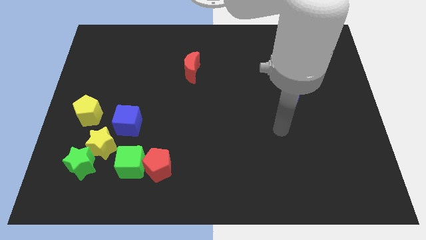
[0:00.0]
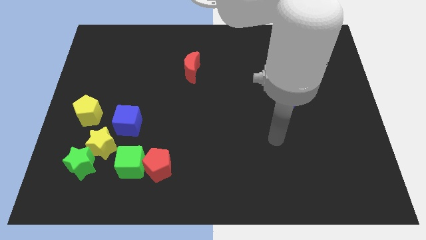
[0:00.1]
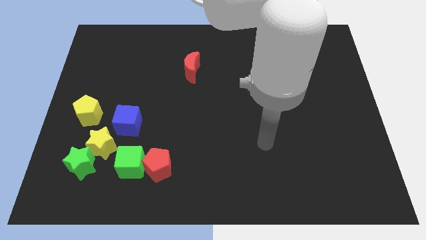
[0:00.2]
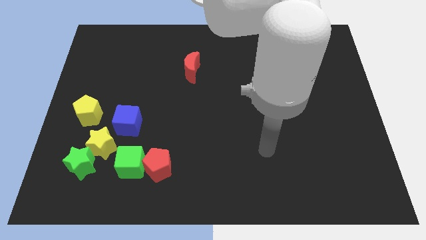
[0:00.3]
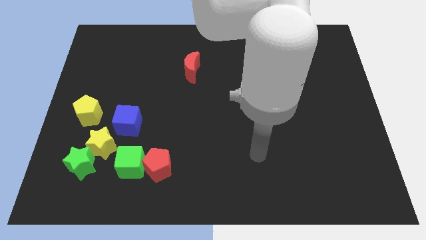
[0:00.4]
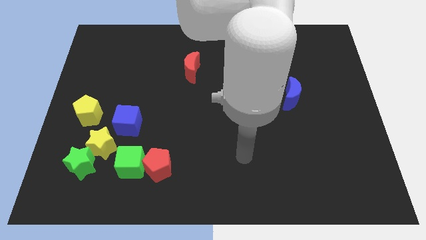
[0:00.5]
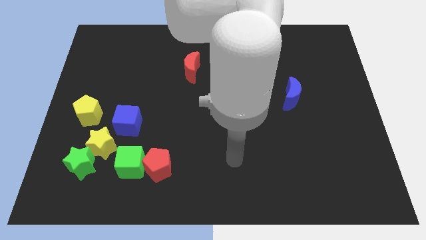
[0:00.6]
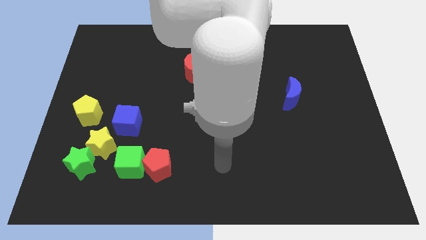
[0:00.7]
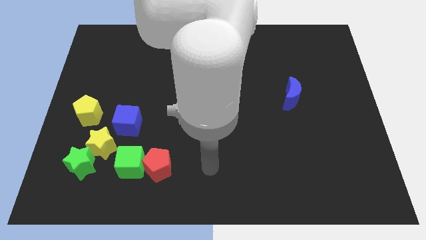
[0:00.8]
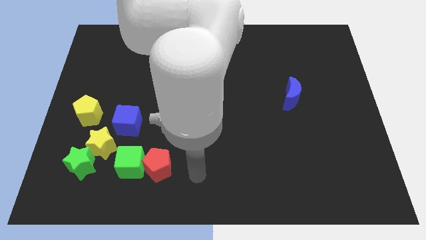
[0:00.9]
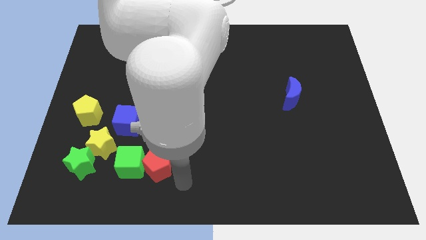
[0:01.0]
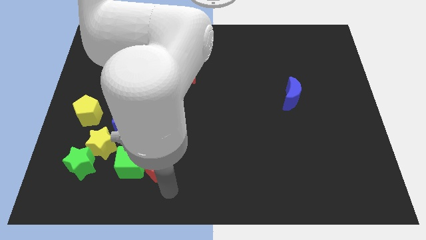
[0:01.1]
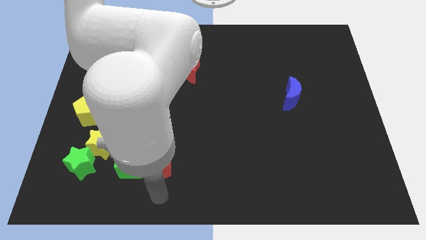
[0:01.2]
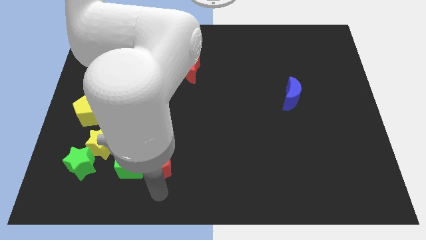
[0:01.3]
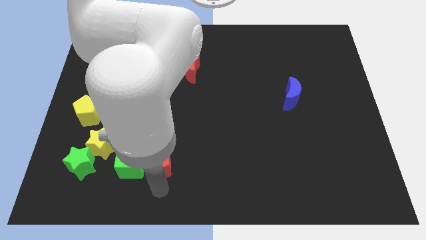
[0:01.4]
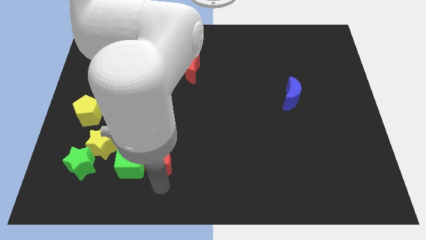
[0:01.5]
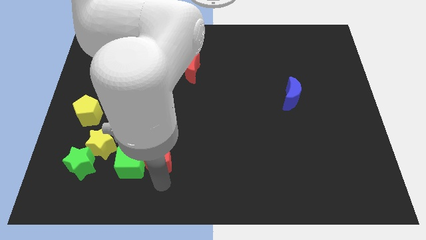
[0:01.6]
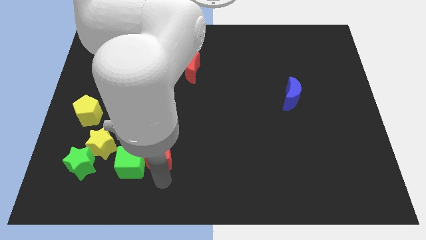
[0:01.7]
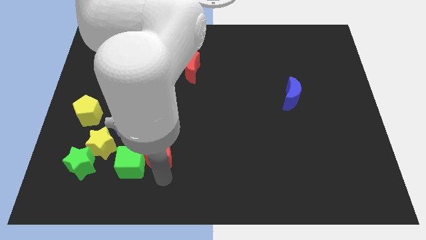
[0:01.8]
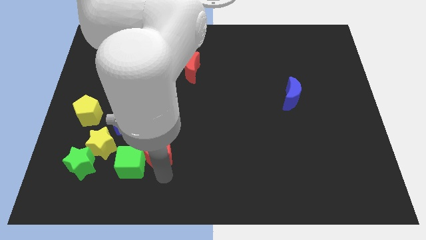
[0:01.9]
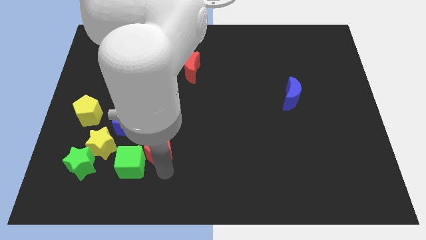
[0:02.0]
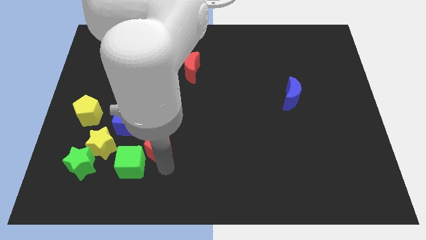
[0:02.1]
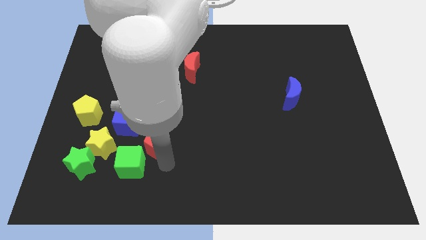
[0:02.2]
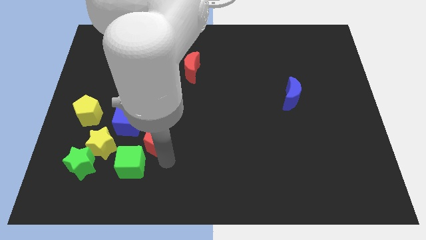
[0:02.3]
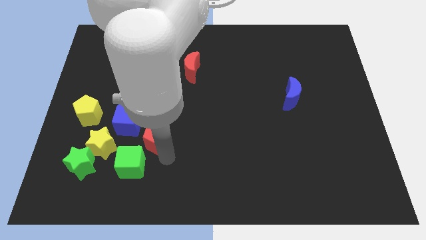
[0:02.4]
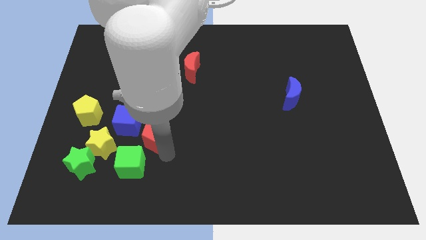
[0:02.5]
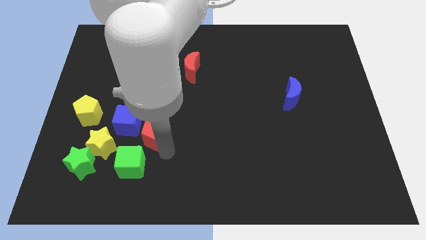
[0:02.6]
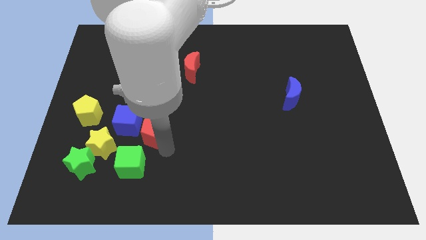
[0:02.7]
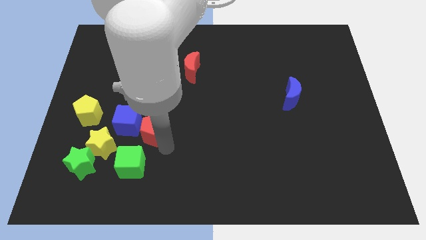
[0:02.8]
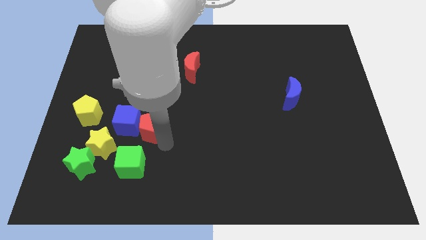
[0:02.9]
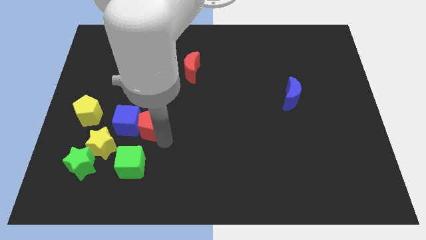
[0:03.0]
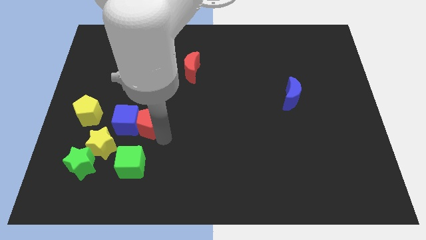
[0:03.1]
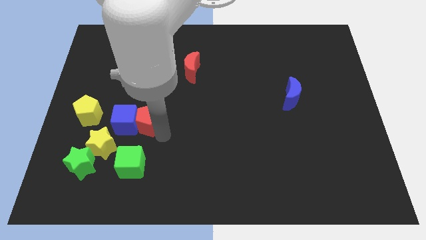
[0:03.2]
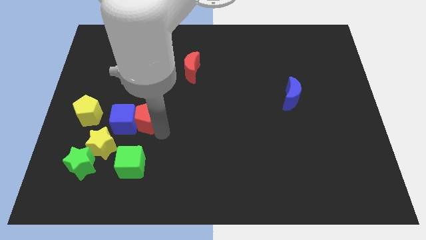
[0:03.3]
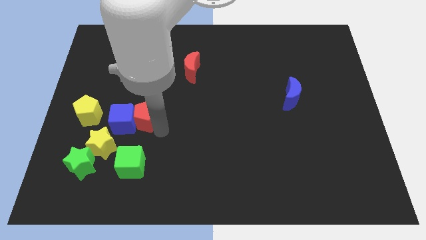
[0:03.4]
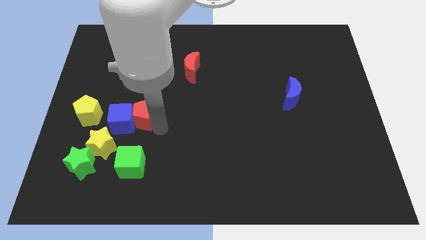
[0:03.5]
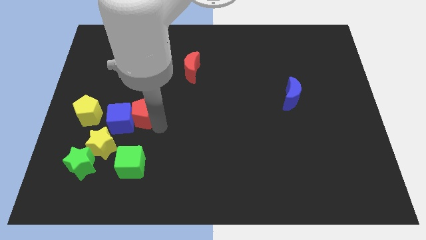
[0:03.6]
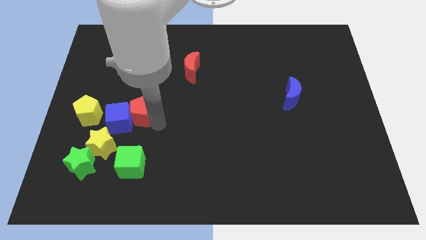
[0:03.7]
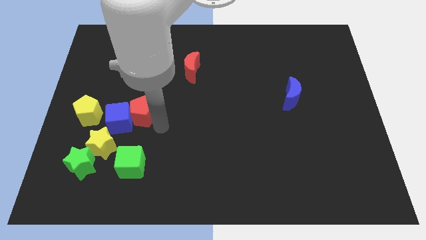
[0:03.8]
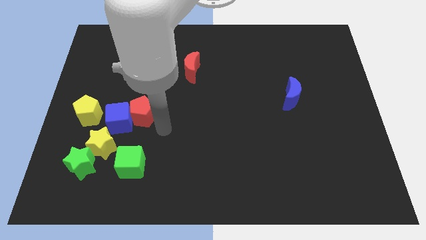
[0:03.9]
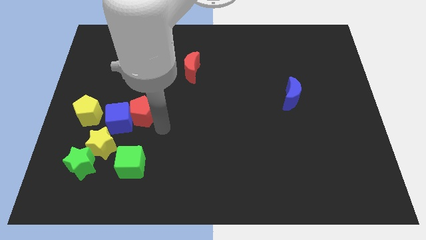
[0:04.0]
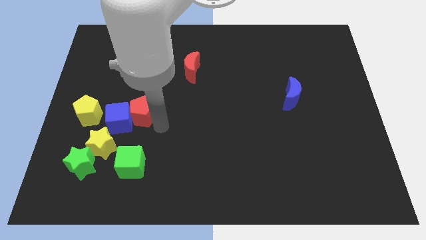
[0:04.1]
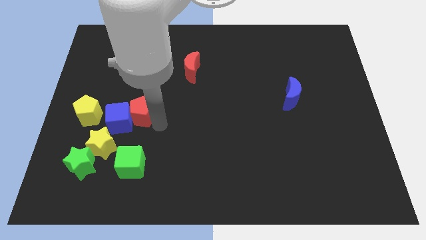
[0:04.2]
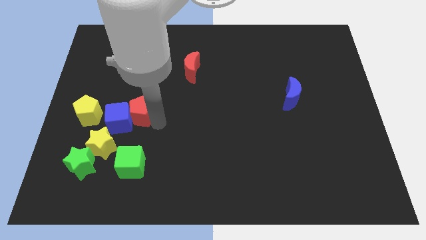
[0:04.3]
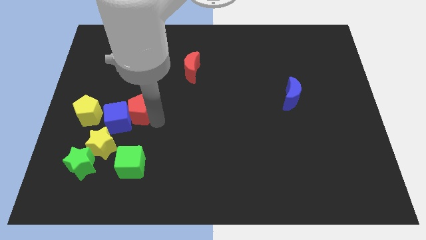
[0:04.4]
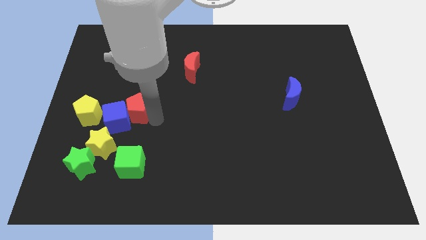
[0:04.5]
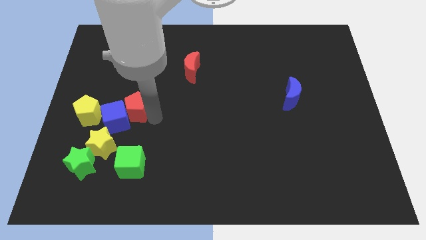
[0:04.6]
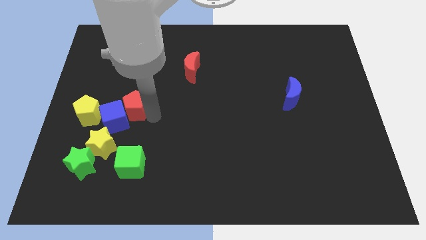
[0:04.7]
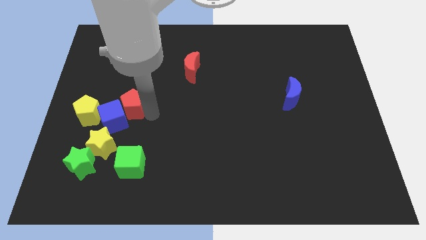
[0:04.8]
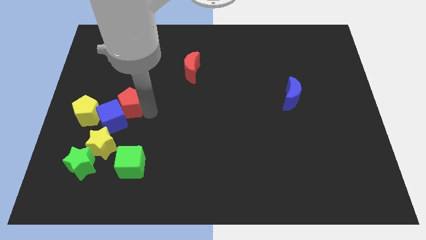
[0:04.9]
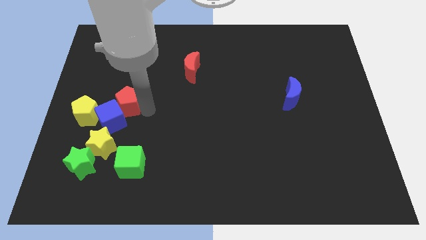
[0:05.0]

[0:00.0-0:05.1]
push the red pentagon to the top right side of the yellow pentagon

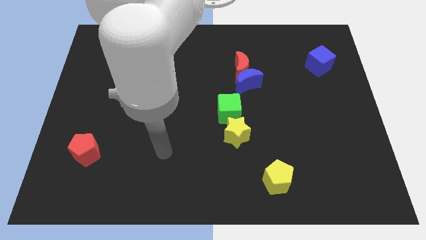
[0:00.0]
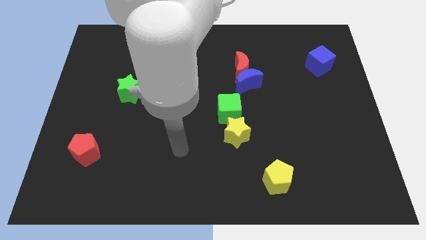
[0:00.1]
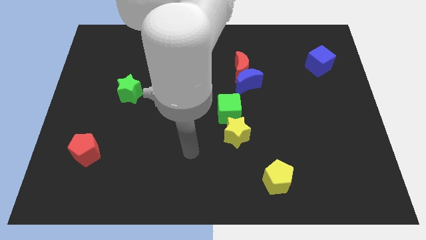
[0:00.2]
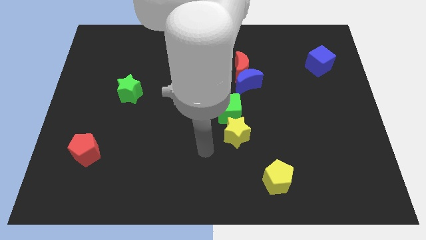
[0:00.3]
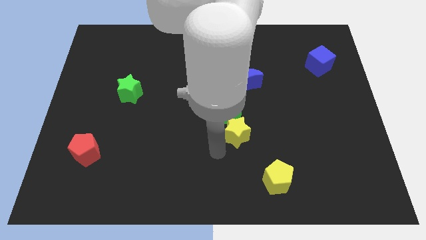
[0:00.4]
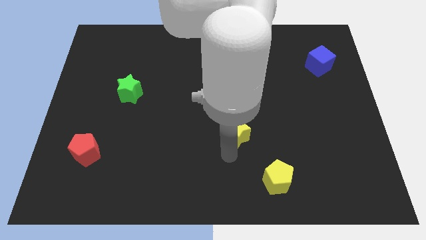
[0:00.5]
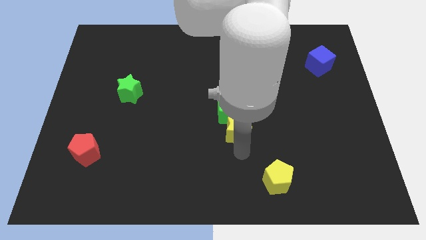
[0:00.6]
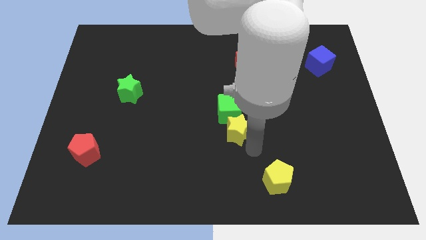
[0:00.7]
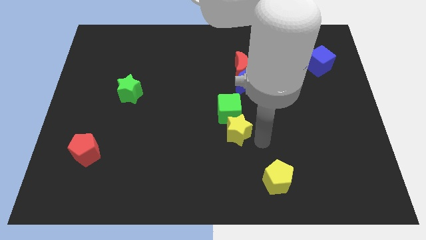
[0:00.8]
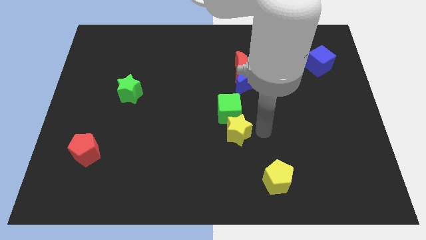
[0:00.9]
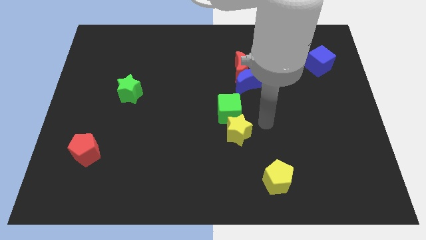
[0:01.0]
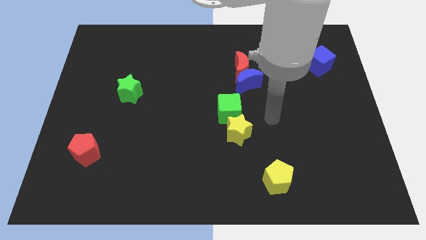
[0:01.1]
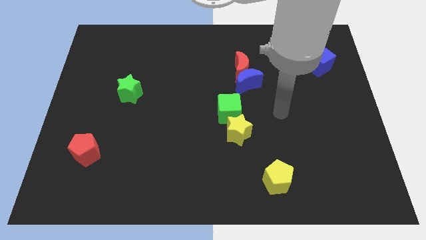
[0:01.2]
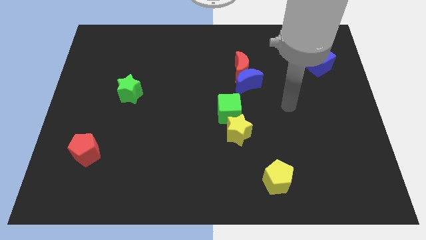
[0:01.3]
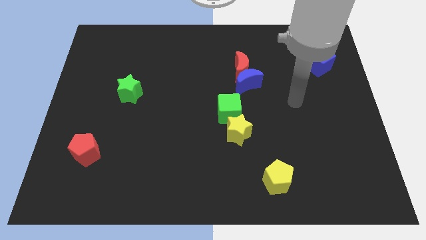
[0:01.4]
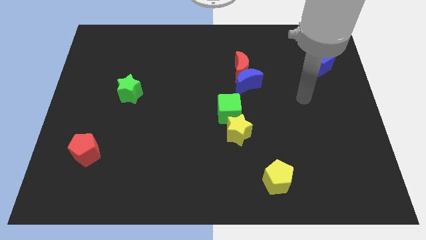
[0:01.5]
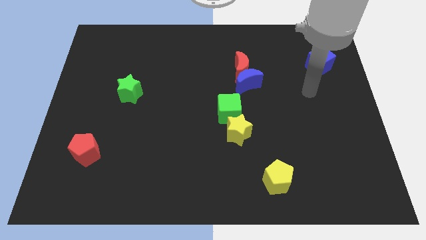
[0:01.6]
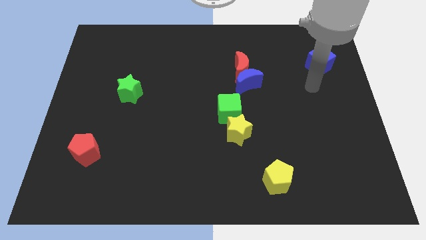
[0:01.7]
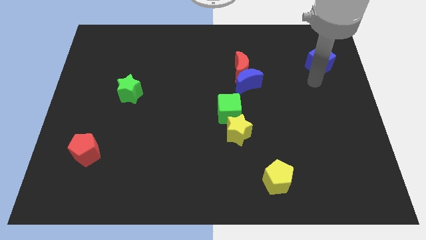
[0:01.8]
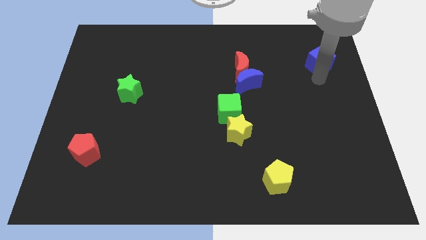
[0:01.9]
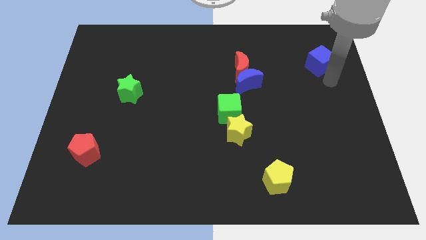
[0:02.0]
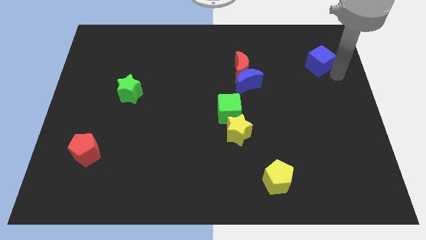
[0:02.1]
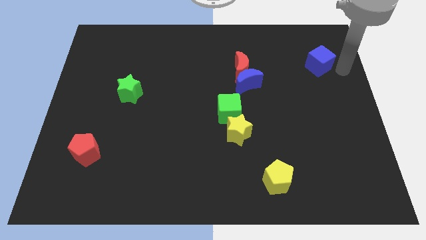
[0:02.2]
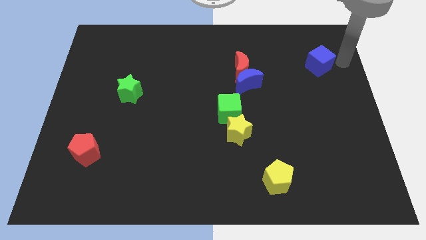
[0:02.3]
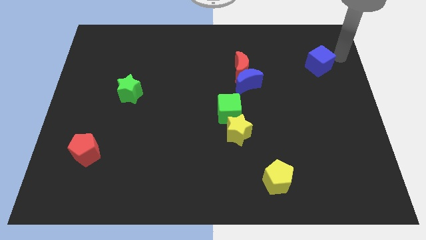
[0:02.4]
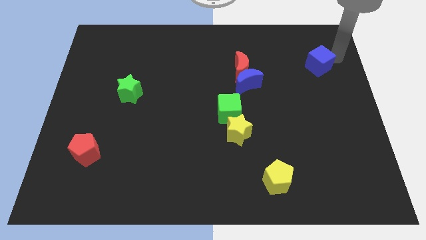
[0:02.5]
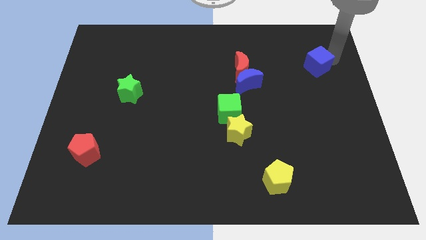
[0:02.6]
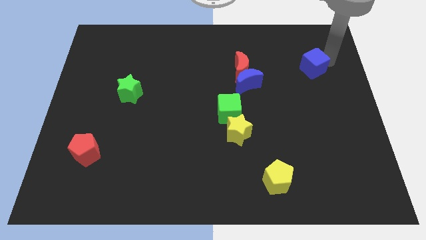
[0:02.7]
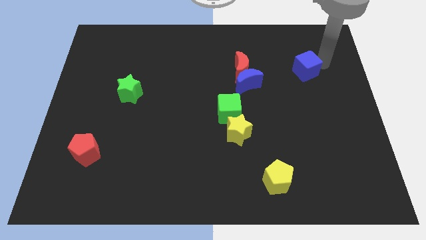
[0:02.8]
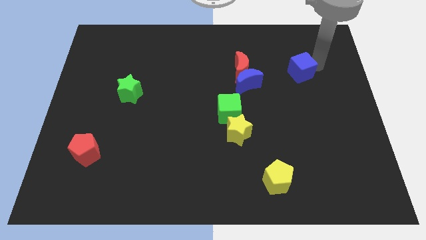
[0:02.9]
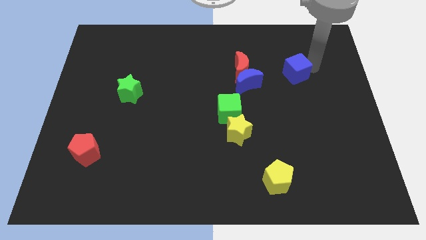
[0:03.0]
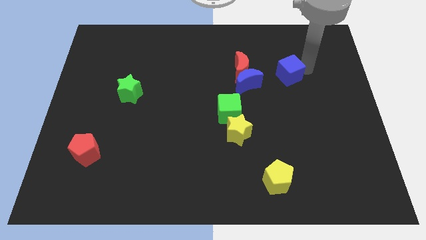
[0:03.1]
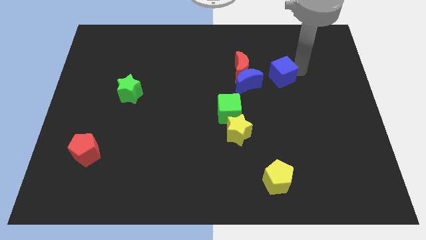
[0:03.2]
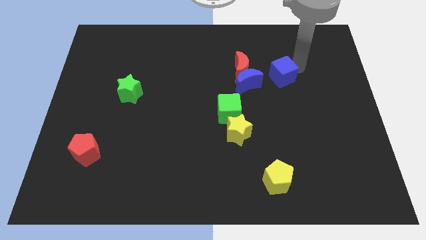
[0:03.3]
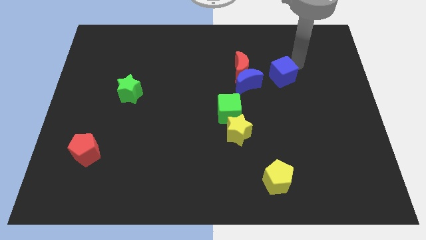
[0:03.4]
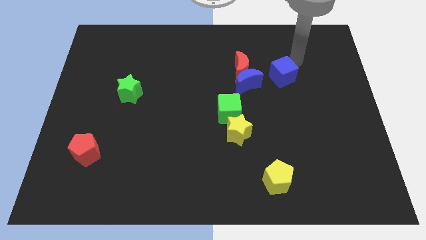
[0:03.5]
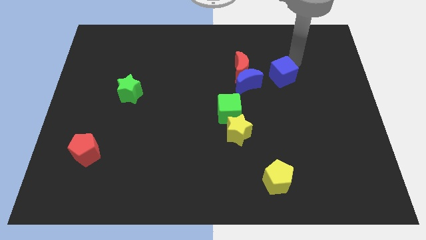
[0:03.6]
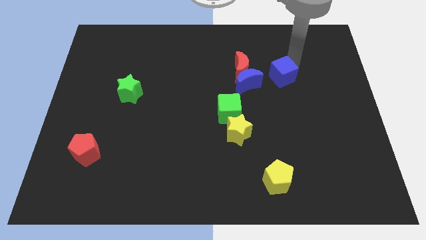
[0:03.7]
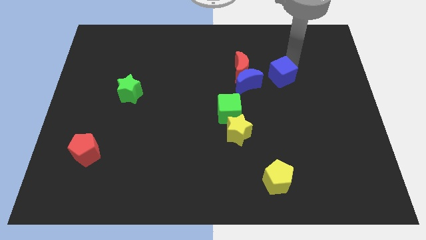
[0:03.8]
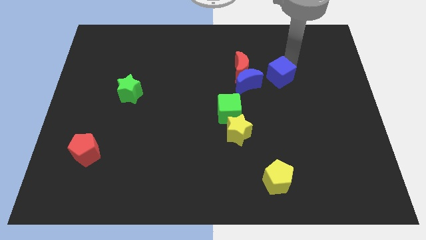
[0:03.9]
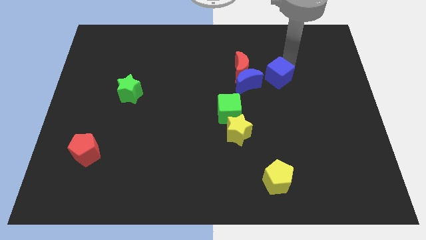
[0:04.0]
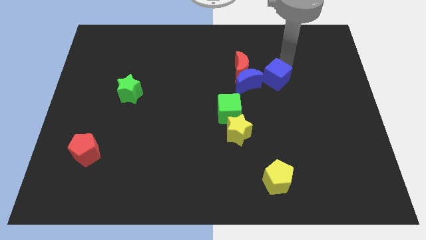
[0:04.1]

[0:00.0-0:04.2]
push the blue cube diagonally down and to the right of the red moon
